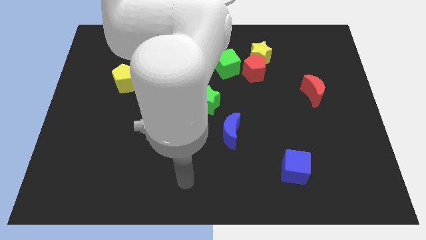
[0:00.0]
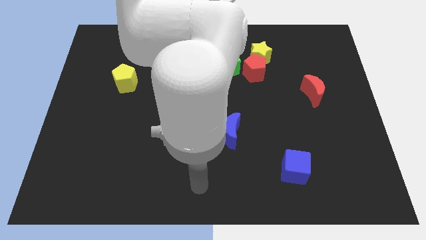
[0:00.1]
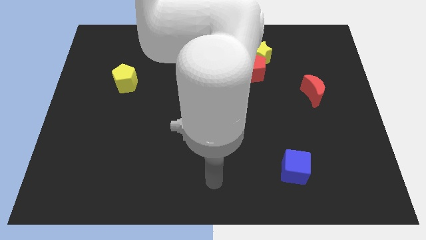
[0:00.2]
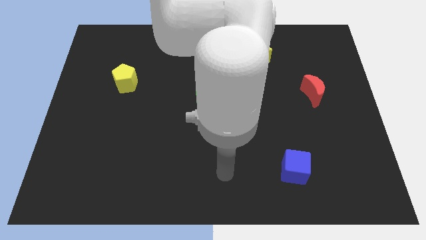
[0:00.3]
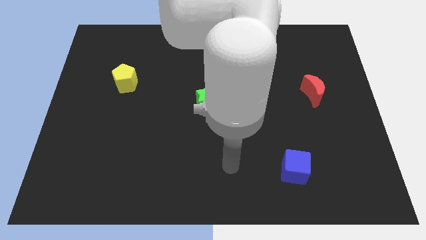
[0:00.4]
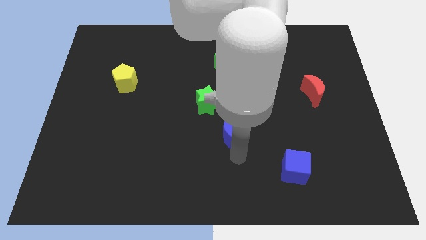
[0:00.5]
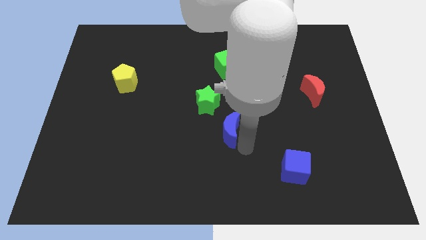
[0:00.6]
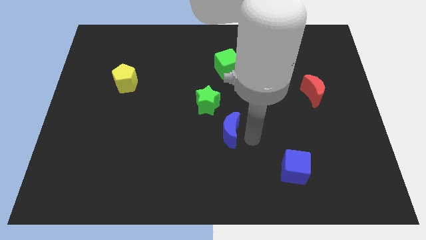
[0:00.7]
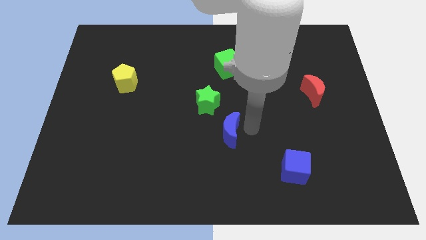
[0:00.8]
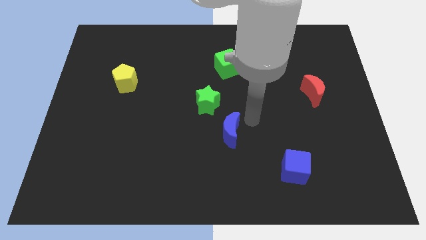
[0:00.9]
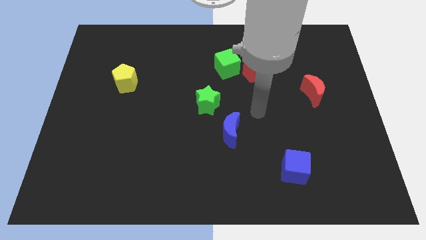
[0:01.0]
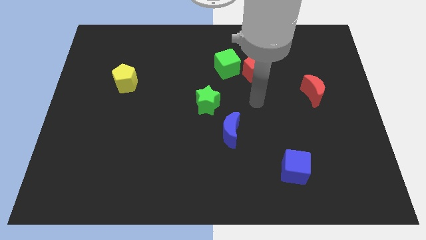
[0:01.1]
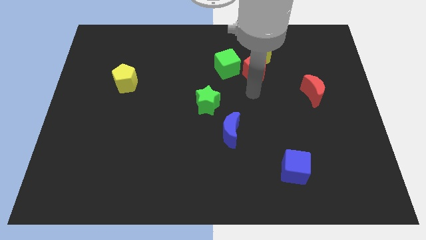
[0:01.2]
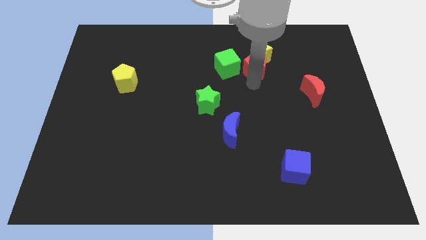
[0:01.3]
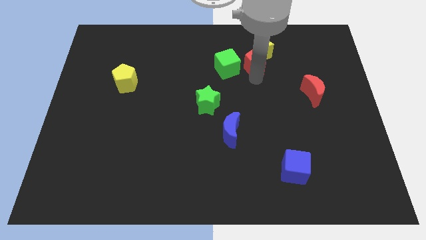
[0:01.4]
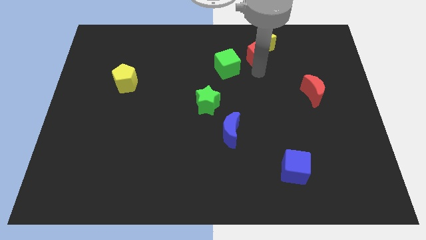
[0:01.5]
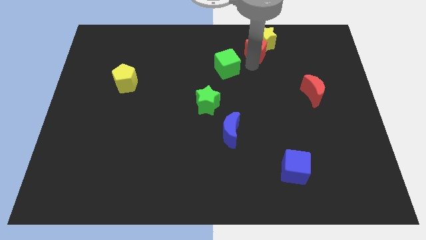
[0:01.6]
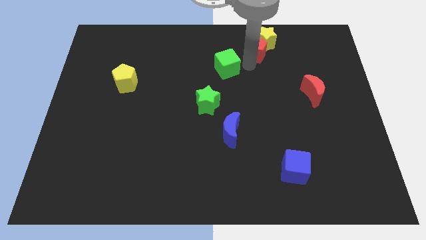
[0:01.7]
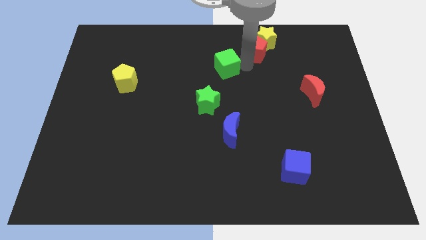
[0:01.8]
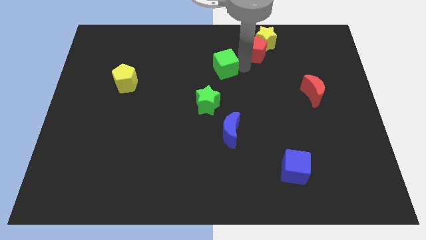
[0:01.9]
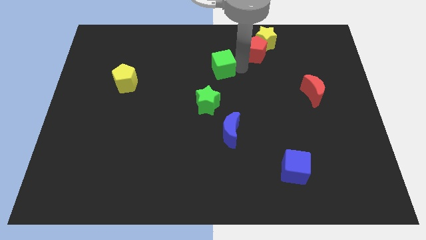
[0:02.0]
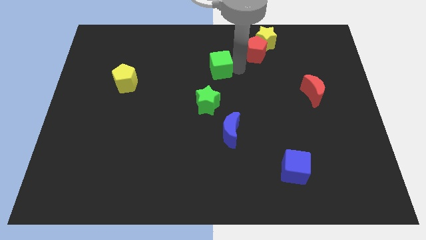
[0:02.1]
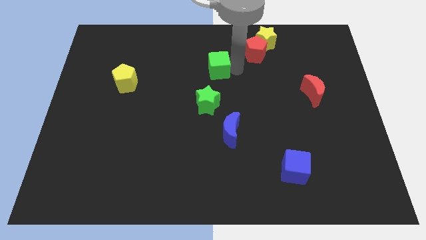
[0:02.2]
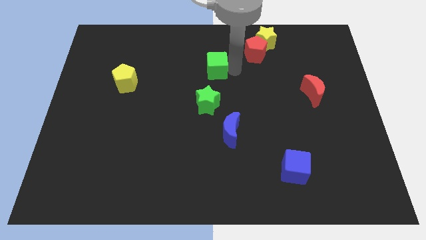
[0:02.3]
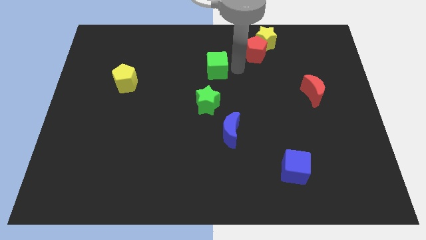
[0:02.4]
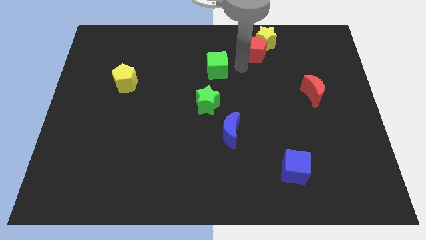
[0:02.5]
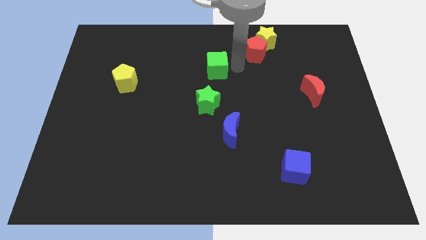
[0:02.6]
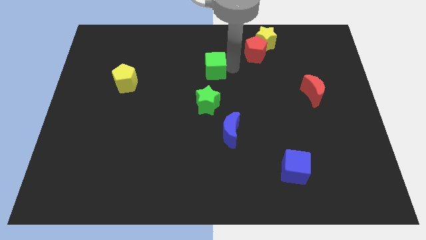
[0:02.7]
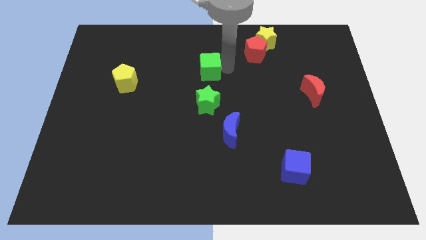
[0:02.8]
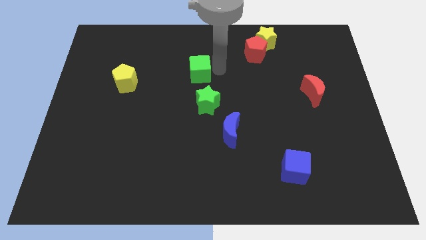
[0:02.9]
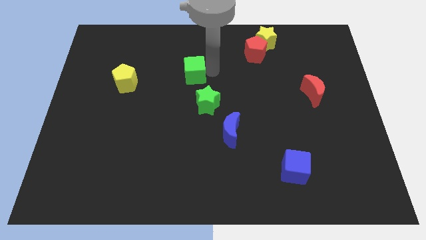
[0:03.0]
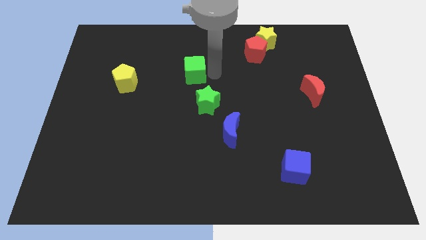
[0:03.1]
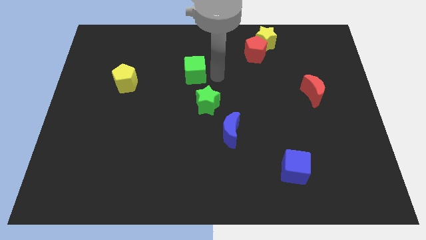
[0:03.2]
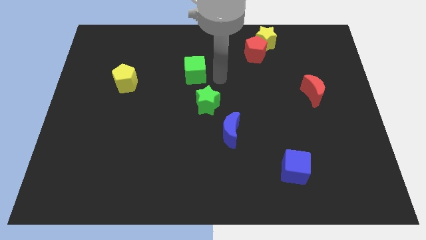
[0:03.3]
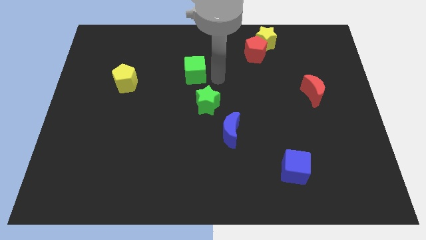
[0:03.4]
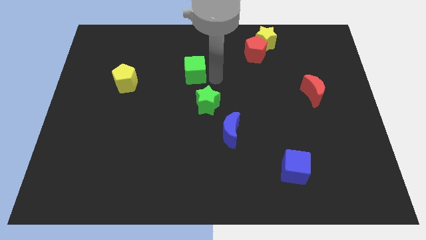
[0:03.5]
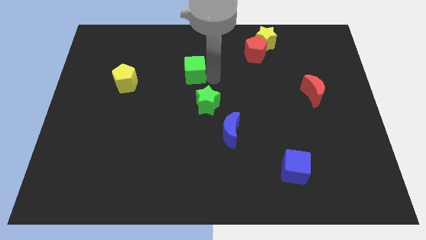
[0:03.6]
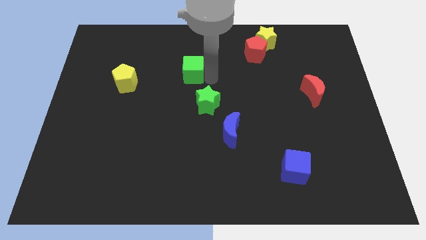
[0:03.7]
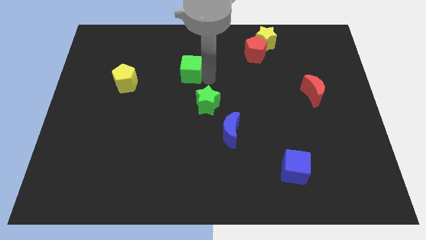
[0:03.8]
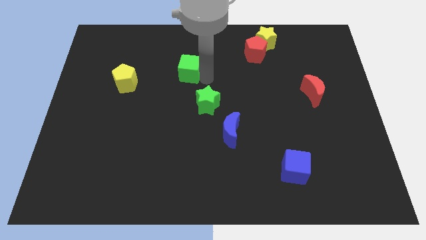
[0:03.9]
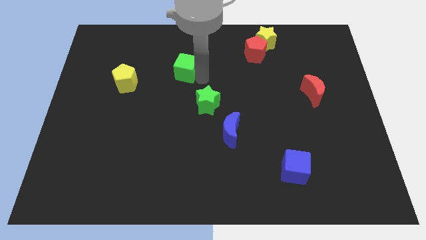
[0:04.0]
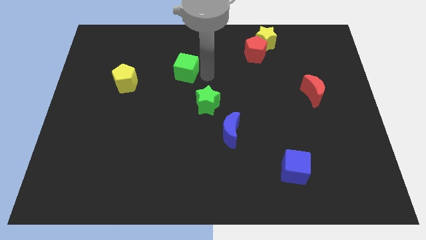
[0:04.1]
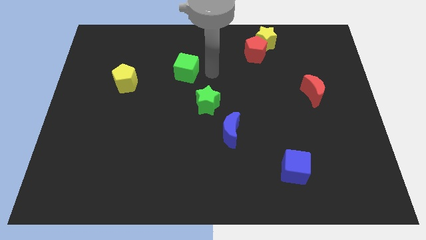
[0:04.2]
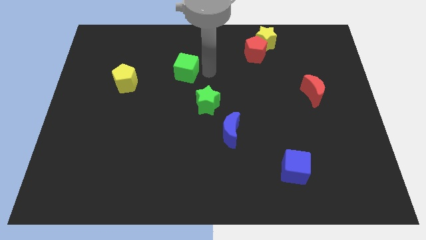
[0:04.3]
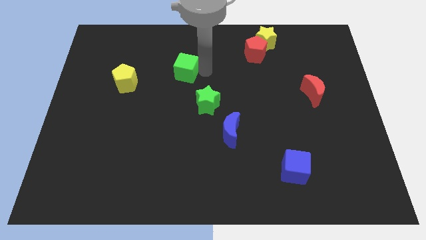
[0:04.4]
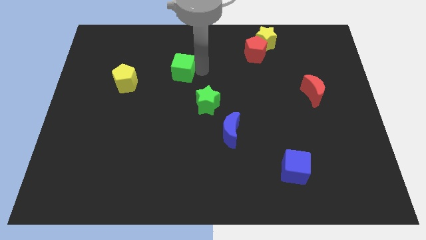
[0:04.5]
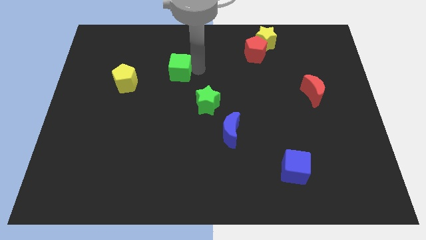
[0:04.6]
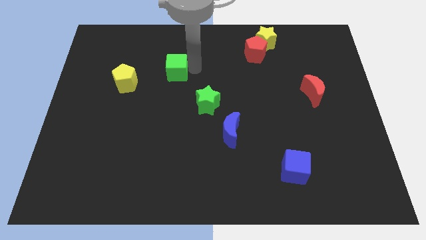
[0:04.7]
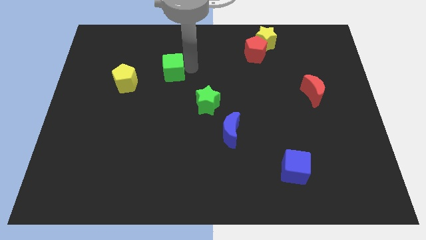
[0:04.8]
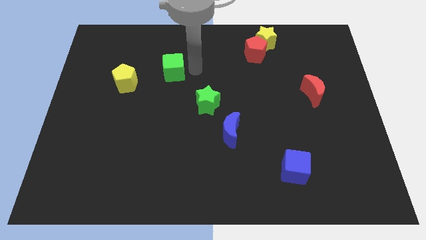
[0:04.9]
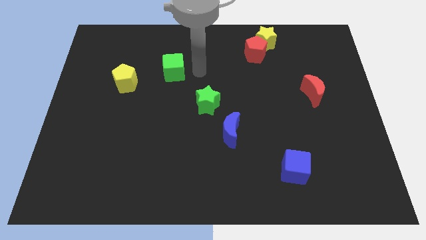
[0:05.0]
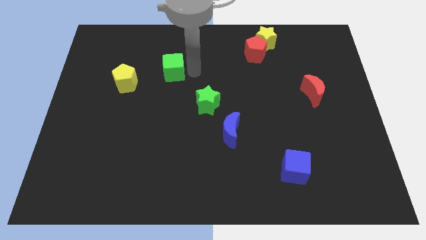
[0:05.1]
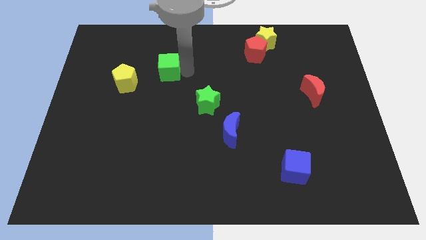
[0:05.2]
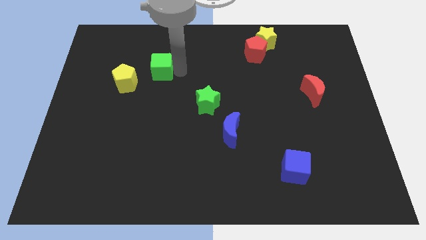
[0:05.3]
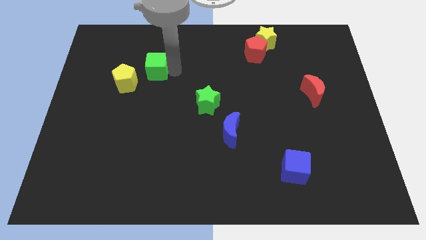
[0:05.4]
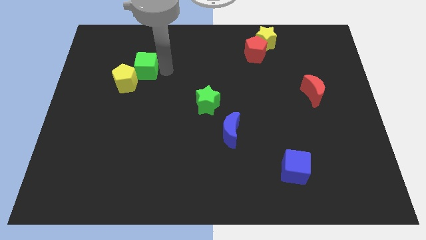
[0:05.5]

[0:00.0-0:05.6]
move the green cube left

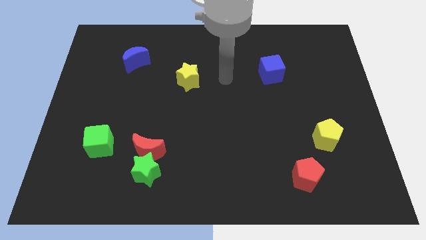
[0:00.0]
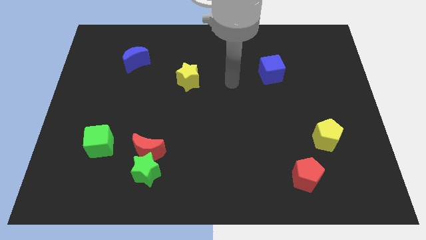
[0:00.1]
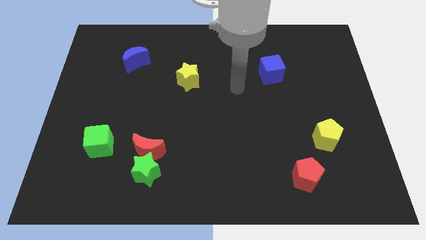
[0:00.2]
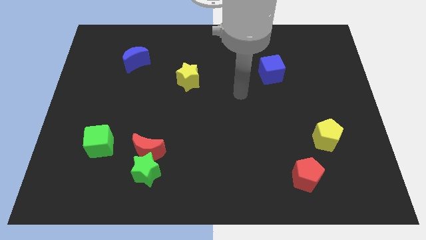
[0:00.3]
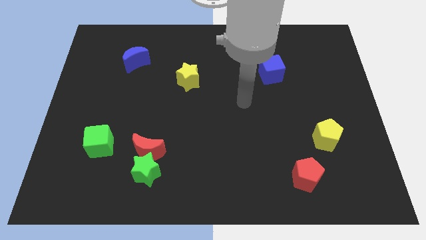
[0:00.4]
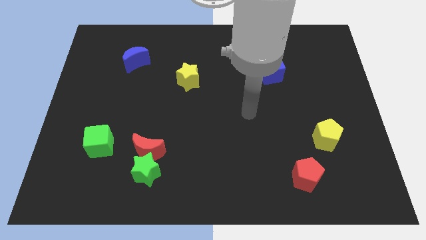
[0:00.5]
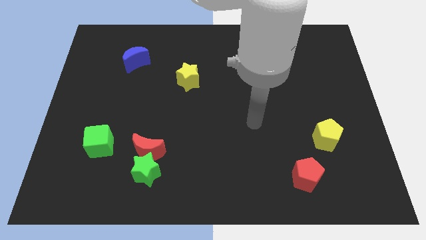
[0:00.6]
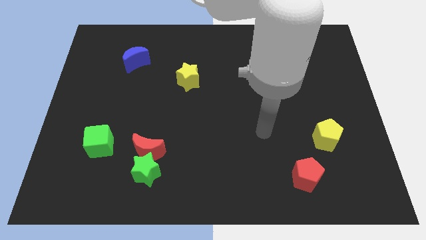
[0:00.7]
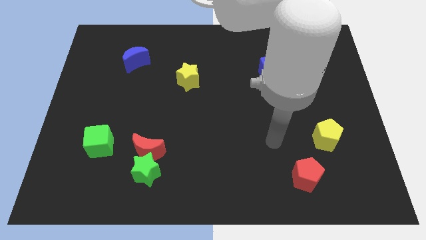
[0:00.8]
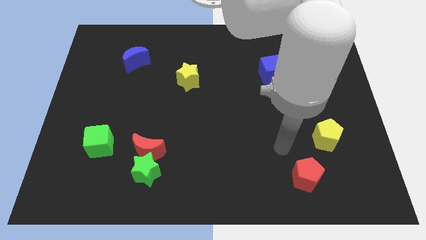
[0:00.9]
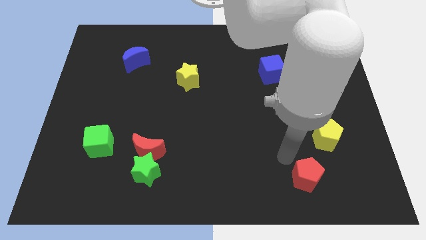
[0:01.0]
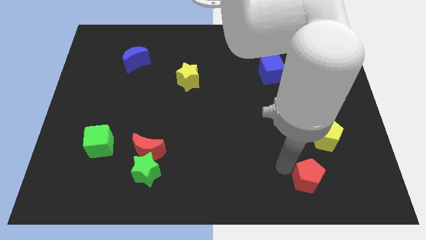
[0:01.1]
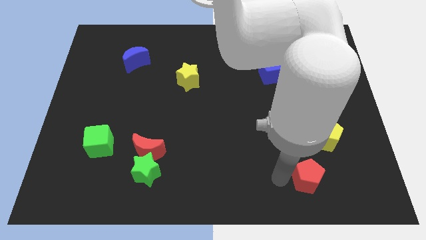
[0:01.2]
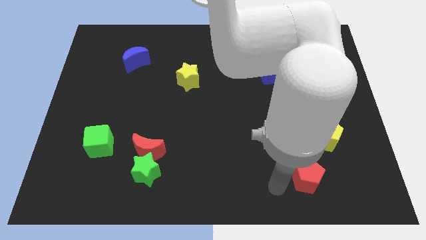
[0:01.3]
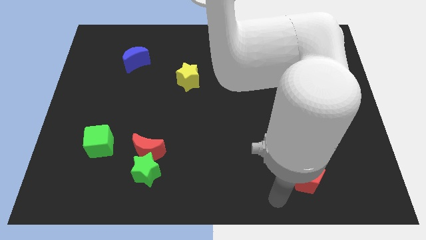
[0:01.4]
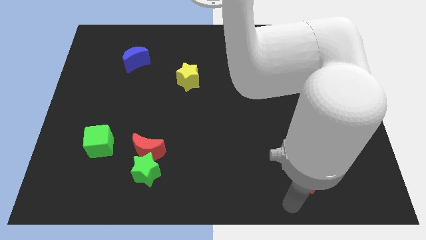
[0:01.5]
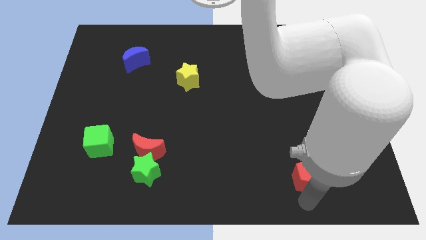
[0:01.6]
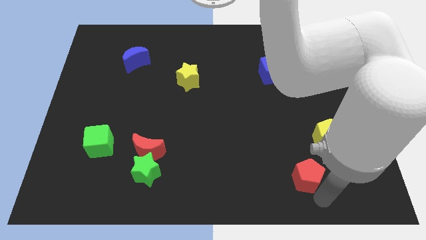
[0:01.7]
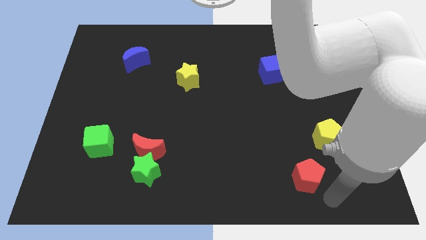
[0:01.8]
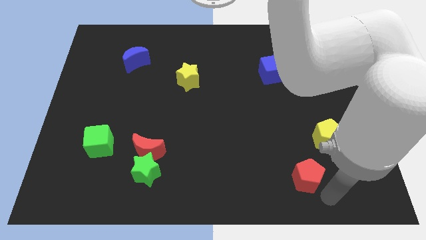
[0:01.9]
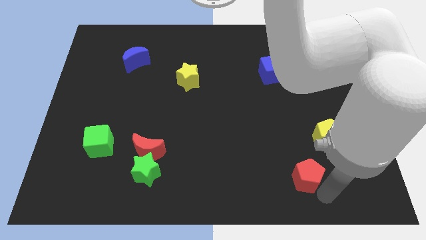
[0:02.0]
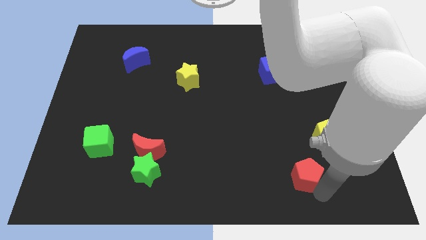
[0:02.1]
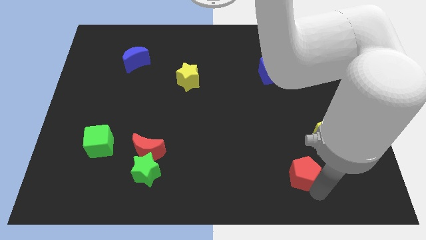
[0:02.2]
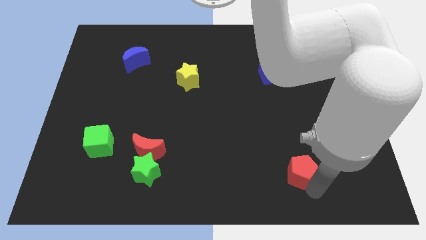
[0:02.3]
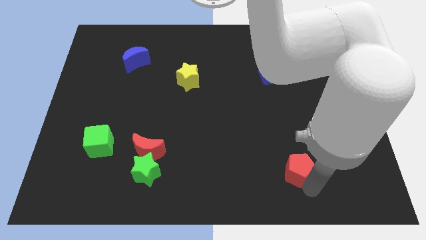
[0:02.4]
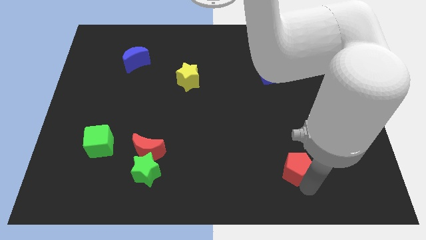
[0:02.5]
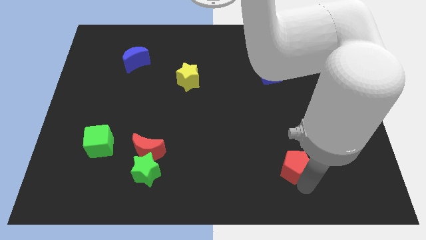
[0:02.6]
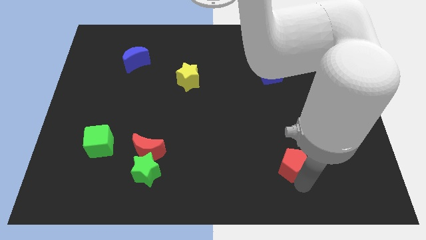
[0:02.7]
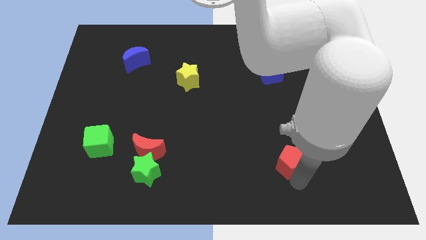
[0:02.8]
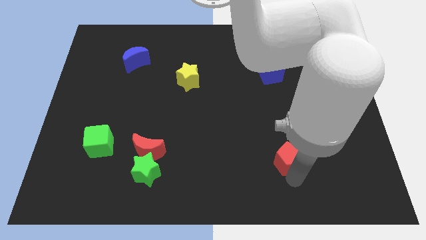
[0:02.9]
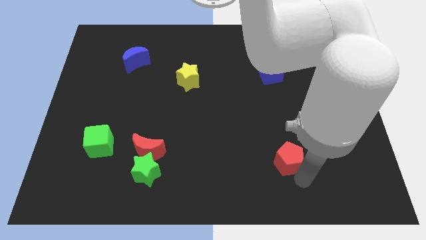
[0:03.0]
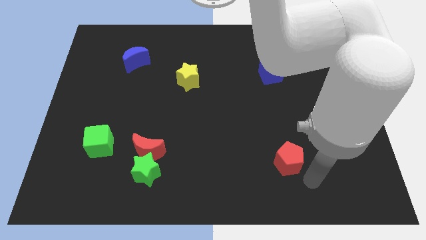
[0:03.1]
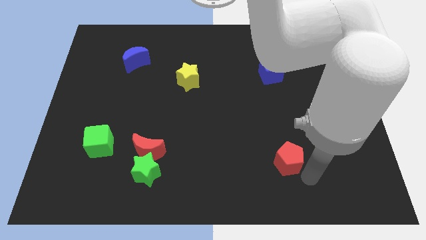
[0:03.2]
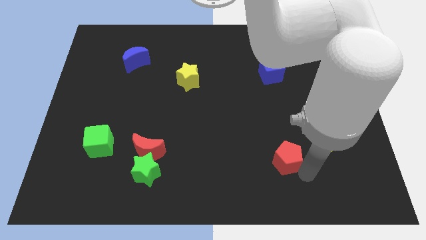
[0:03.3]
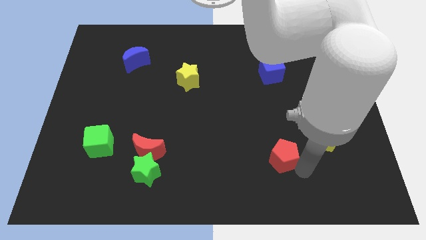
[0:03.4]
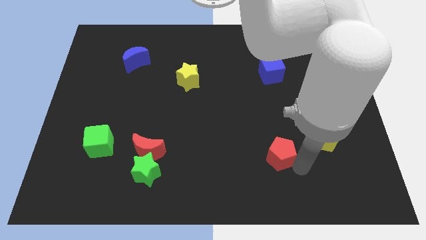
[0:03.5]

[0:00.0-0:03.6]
slightly move the red pentagon upwards and left diagonally
